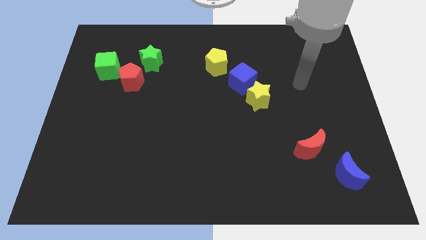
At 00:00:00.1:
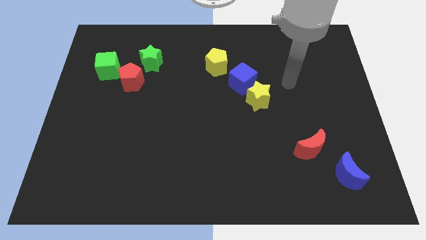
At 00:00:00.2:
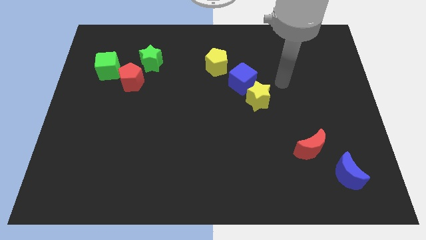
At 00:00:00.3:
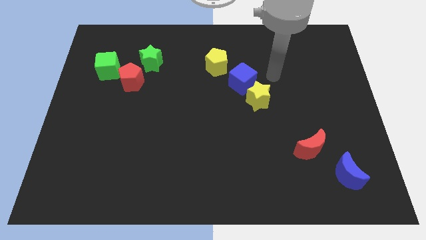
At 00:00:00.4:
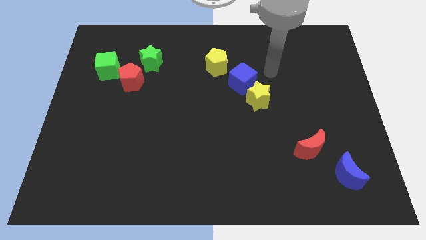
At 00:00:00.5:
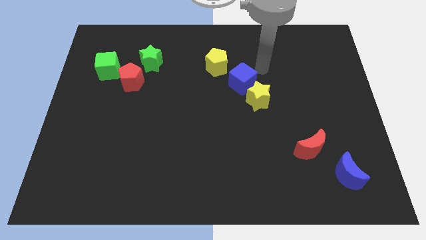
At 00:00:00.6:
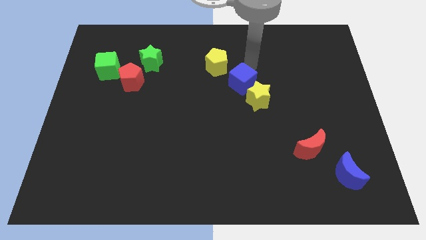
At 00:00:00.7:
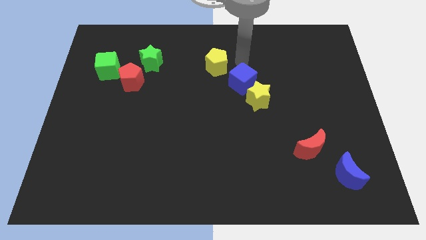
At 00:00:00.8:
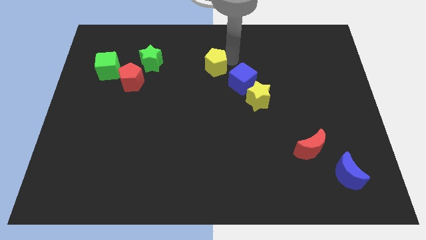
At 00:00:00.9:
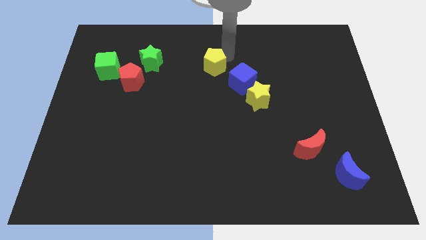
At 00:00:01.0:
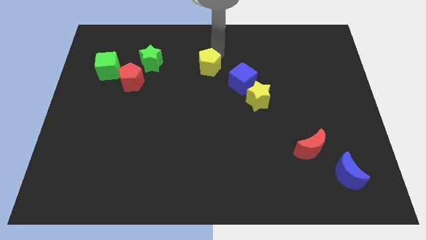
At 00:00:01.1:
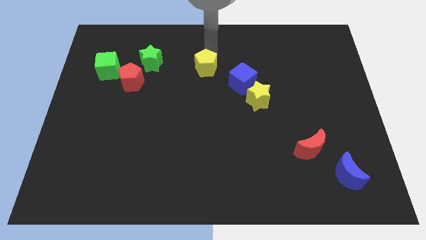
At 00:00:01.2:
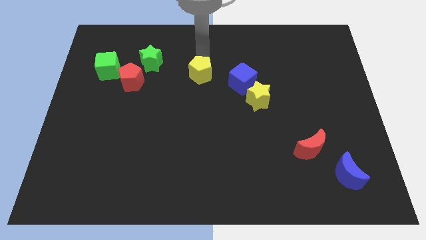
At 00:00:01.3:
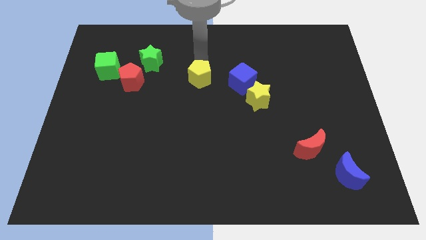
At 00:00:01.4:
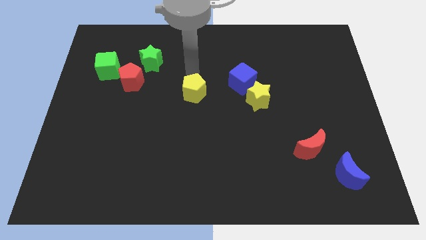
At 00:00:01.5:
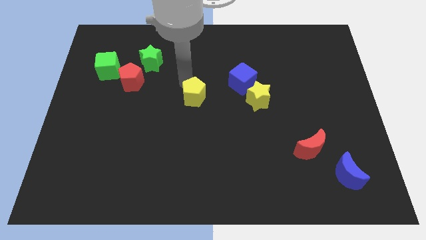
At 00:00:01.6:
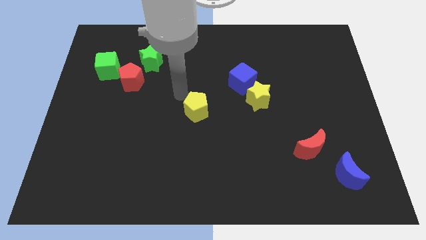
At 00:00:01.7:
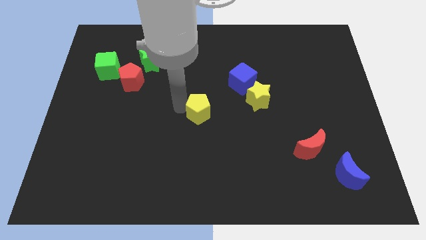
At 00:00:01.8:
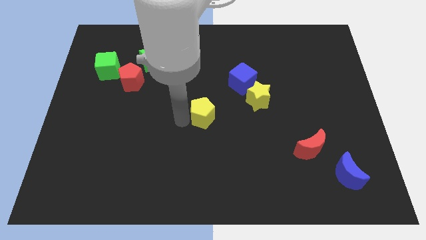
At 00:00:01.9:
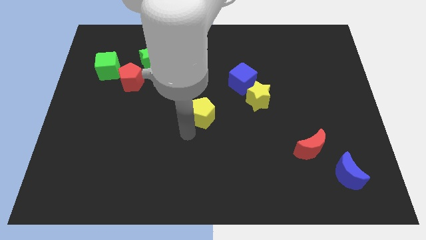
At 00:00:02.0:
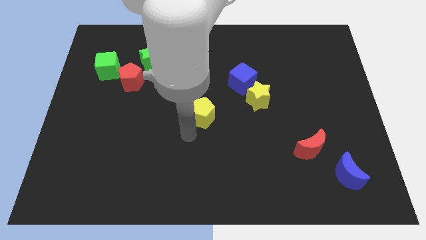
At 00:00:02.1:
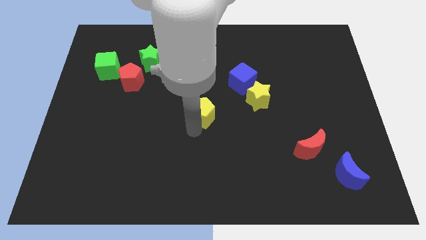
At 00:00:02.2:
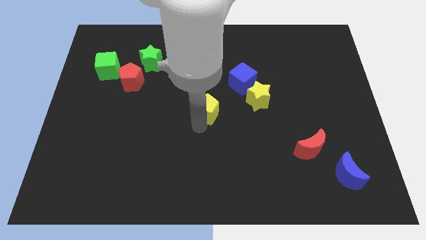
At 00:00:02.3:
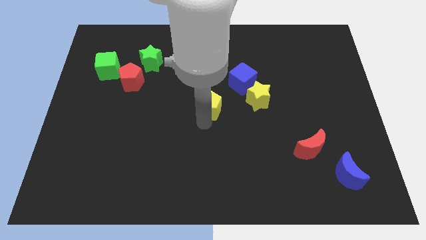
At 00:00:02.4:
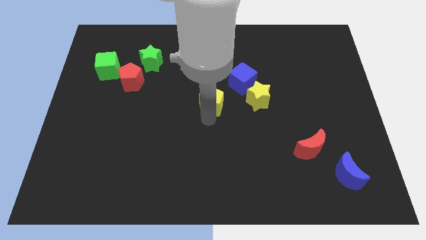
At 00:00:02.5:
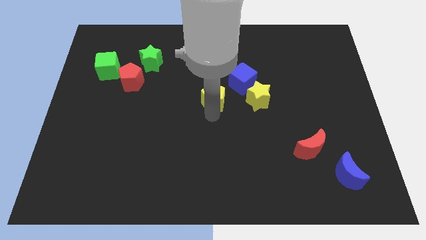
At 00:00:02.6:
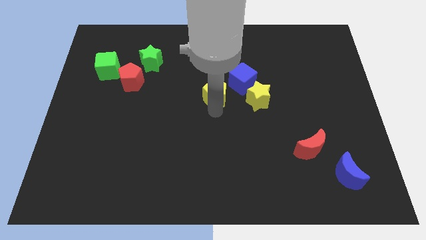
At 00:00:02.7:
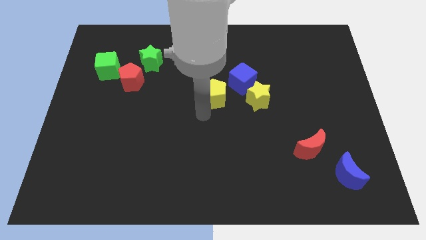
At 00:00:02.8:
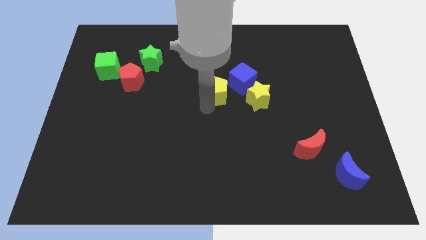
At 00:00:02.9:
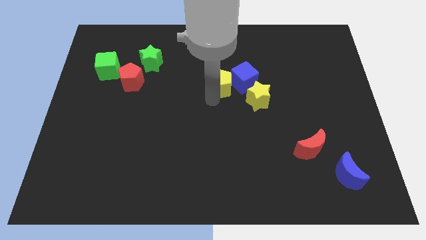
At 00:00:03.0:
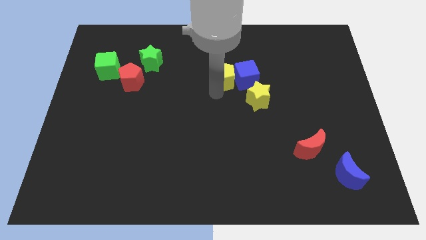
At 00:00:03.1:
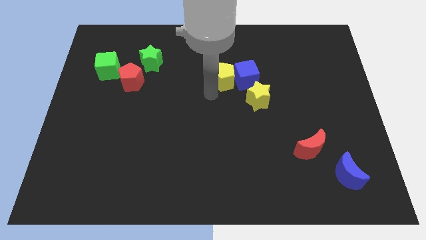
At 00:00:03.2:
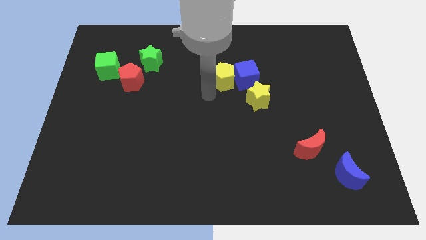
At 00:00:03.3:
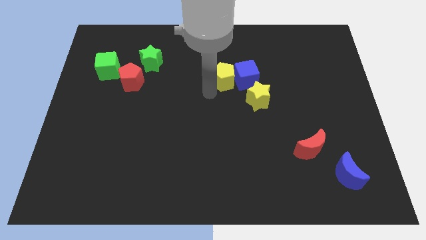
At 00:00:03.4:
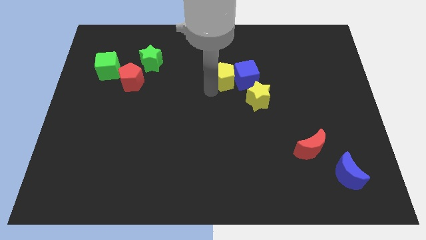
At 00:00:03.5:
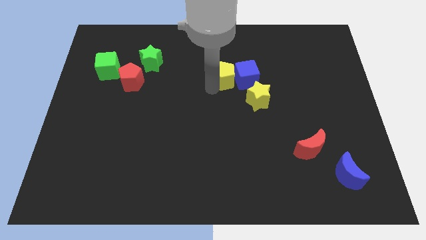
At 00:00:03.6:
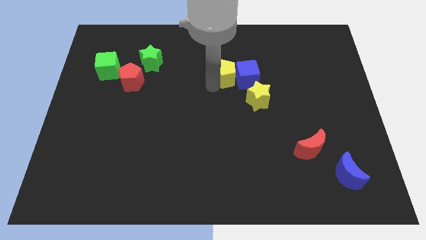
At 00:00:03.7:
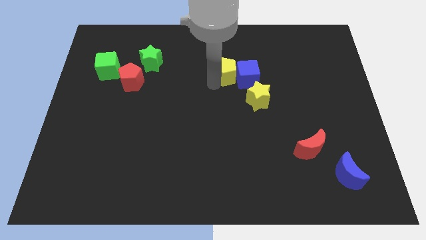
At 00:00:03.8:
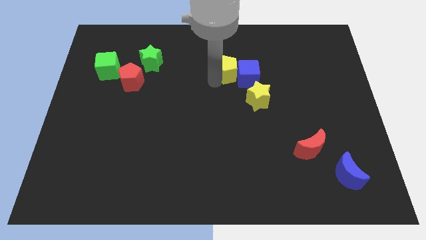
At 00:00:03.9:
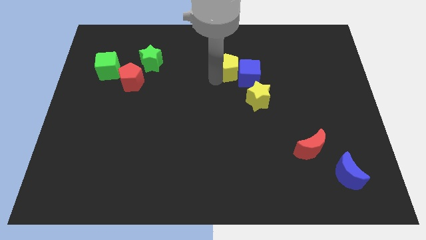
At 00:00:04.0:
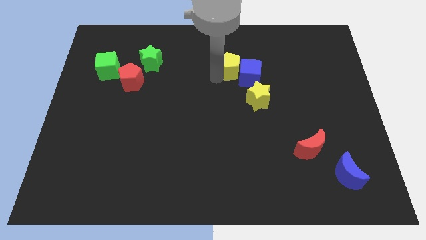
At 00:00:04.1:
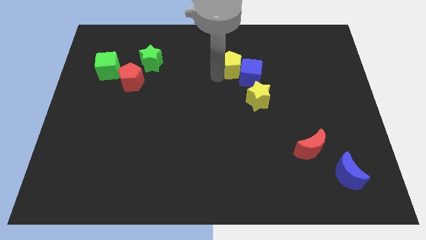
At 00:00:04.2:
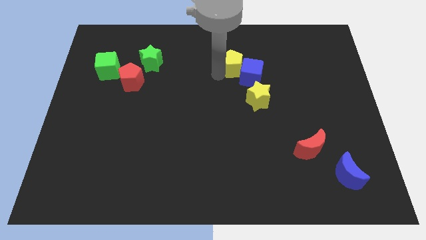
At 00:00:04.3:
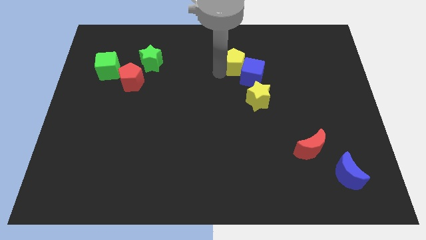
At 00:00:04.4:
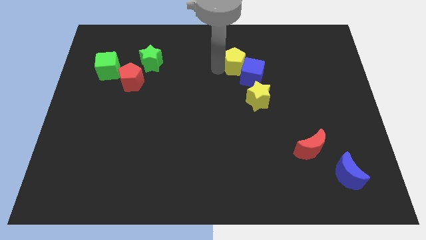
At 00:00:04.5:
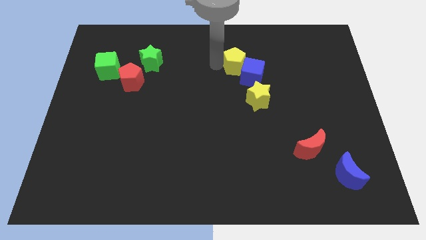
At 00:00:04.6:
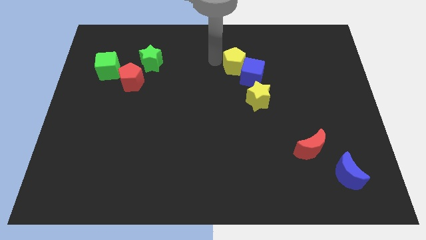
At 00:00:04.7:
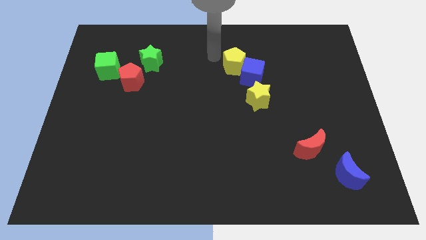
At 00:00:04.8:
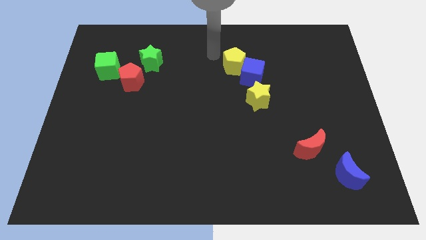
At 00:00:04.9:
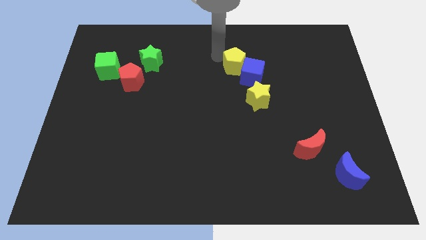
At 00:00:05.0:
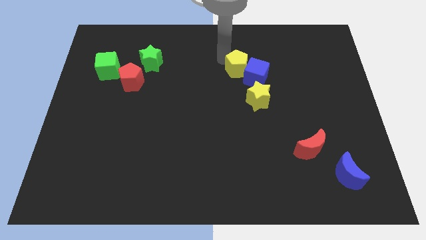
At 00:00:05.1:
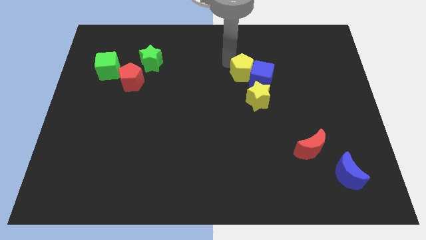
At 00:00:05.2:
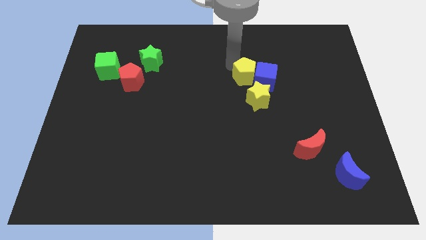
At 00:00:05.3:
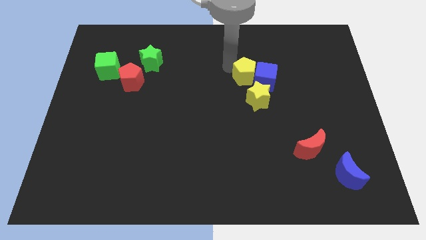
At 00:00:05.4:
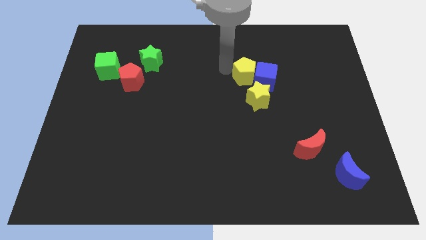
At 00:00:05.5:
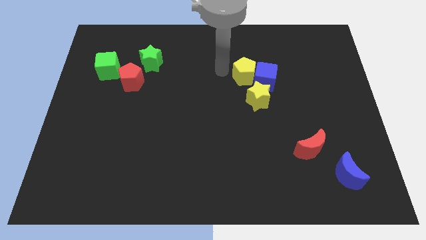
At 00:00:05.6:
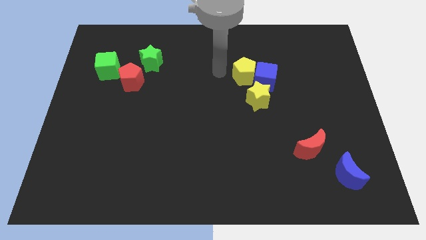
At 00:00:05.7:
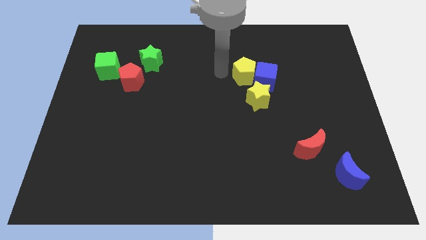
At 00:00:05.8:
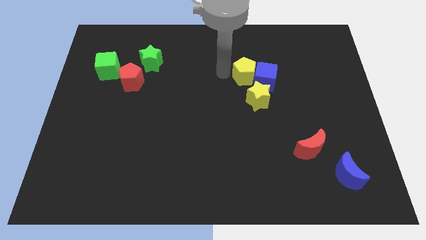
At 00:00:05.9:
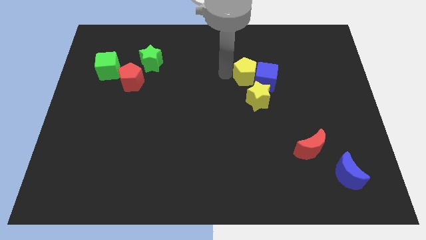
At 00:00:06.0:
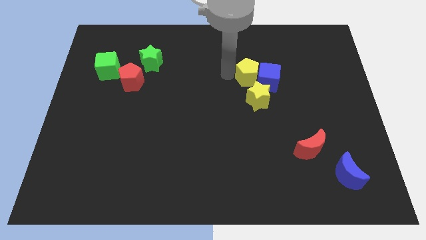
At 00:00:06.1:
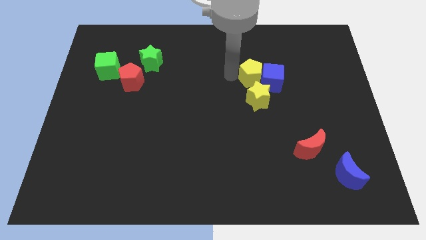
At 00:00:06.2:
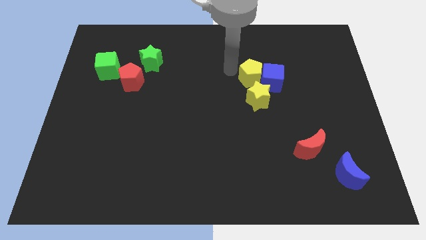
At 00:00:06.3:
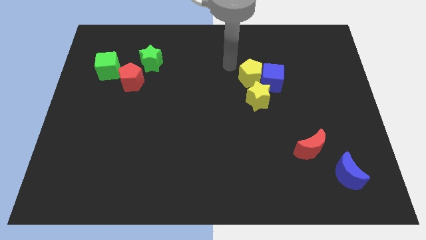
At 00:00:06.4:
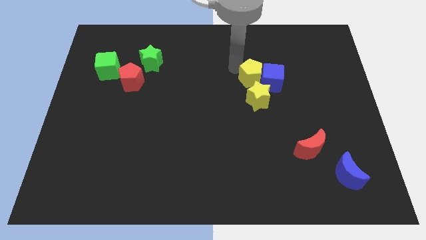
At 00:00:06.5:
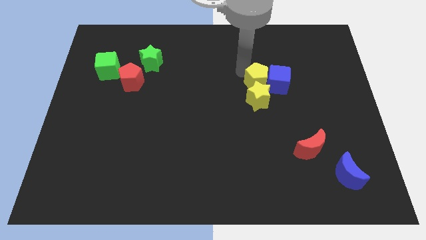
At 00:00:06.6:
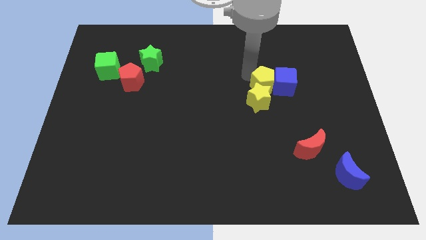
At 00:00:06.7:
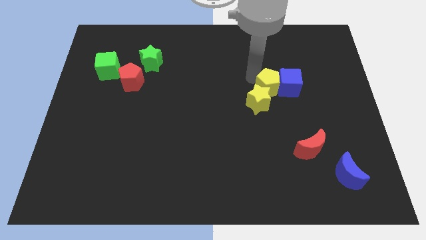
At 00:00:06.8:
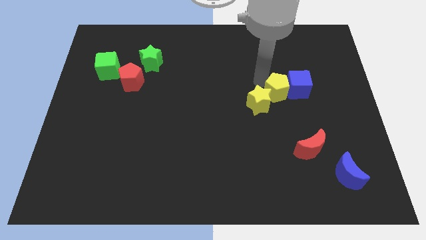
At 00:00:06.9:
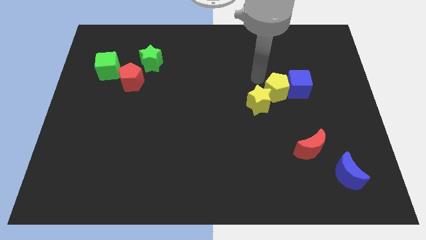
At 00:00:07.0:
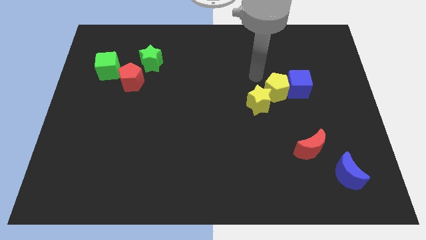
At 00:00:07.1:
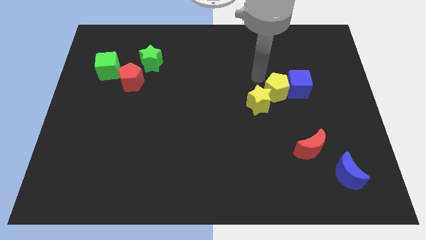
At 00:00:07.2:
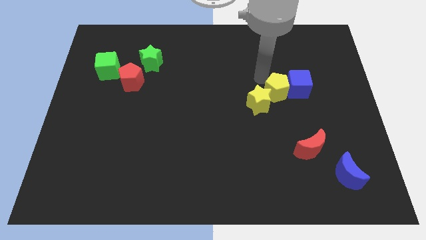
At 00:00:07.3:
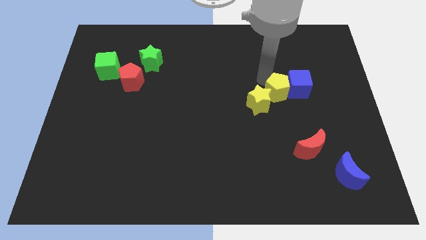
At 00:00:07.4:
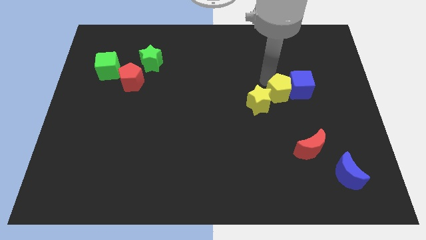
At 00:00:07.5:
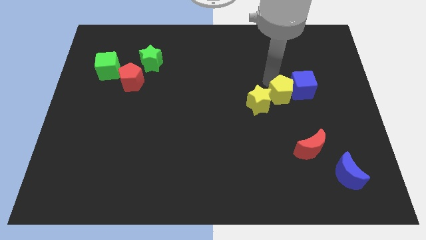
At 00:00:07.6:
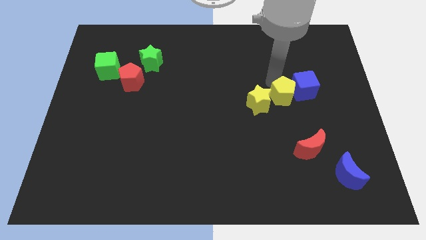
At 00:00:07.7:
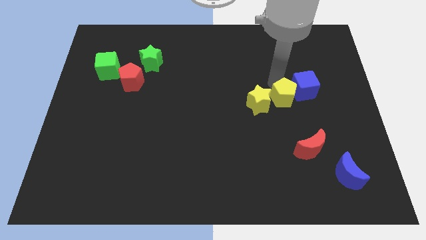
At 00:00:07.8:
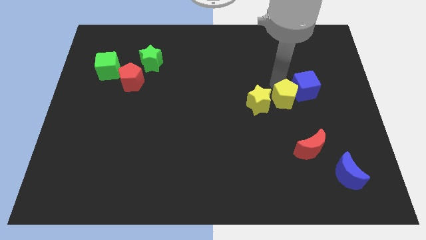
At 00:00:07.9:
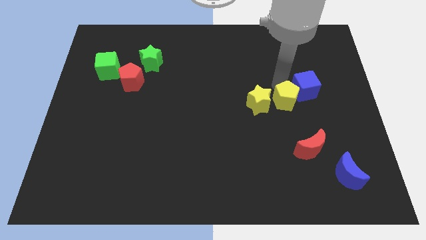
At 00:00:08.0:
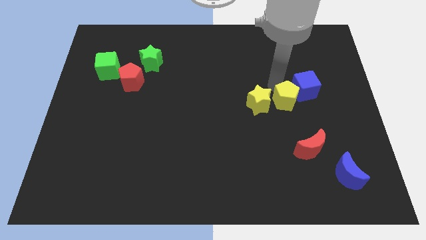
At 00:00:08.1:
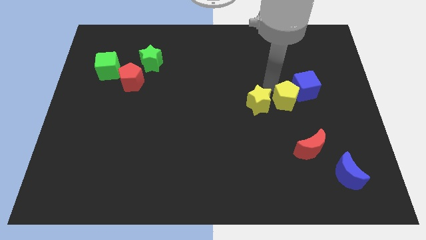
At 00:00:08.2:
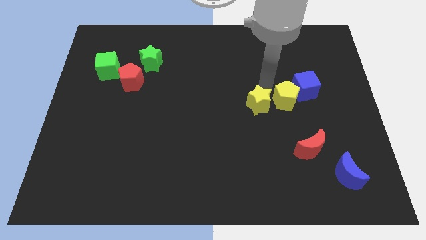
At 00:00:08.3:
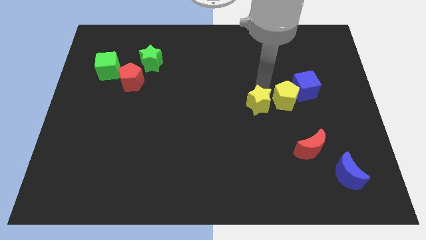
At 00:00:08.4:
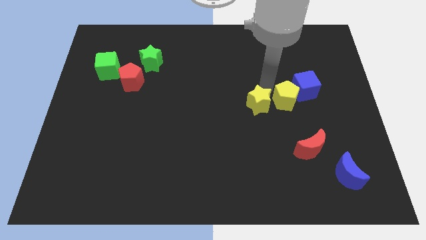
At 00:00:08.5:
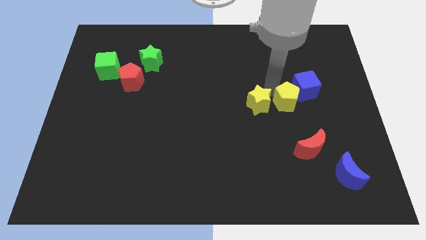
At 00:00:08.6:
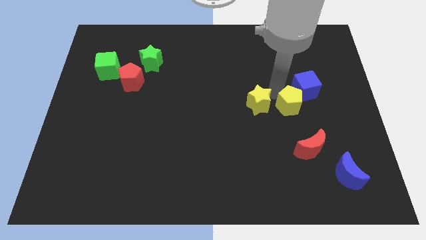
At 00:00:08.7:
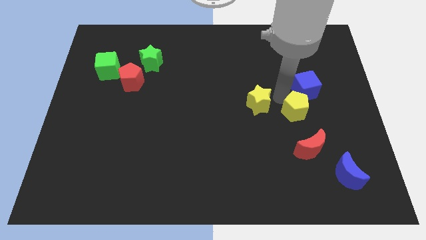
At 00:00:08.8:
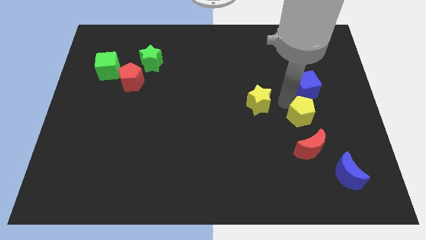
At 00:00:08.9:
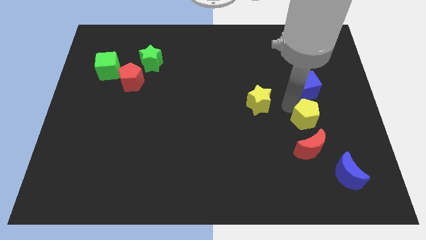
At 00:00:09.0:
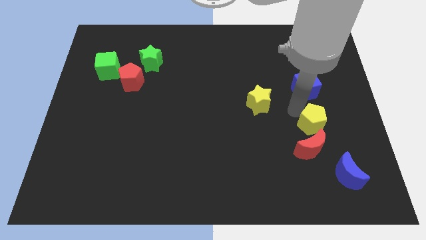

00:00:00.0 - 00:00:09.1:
put the yellow pentagon diagonally up and to the right of the red moon
